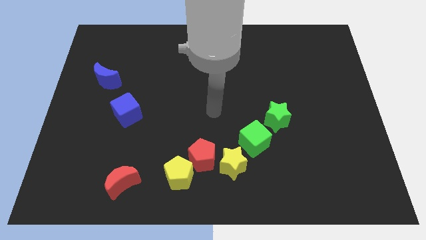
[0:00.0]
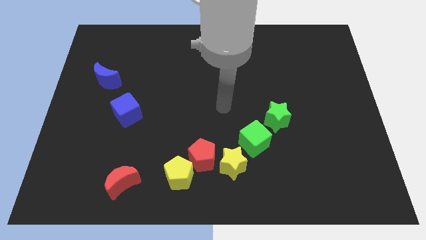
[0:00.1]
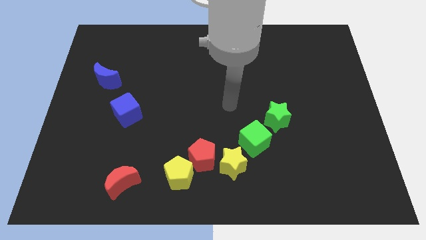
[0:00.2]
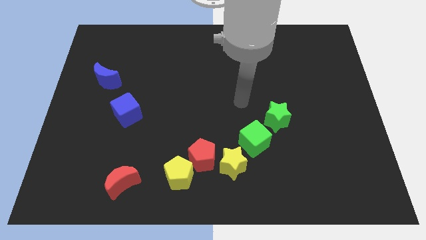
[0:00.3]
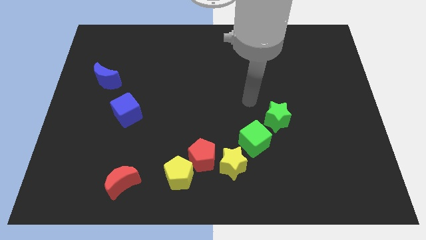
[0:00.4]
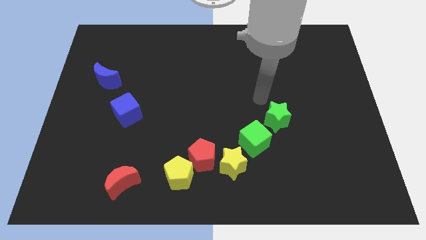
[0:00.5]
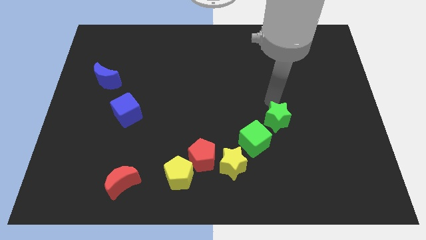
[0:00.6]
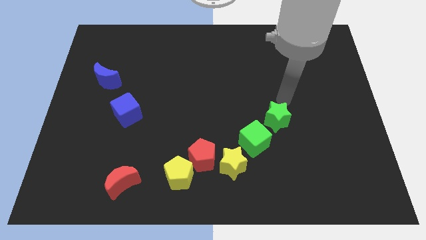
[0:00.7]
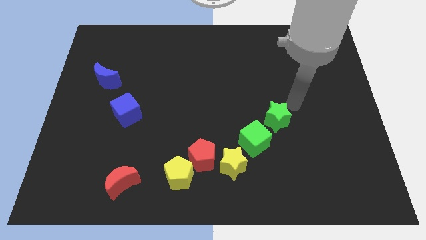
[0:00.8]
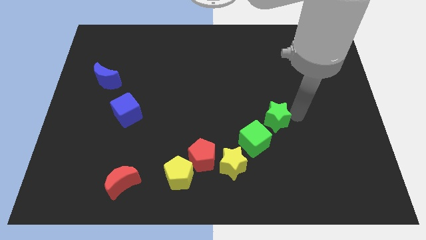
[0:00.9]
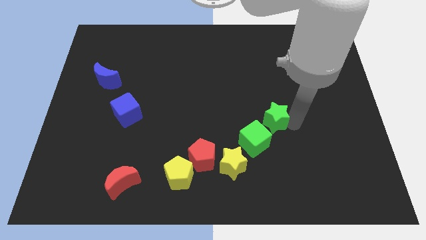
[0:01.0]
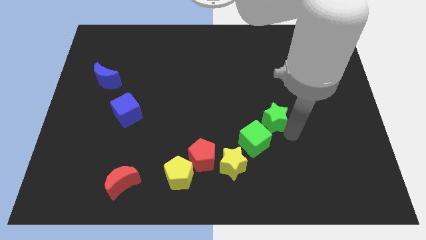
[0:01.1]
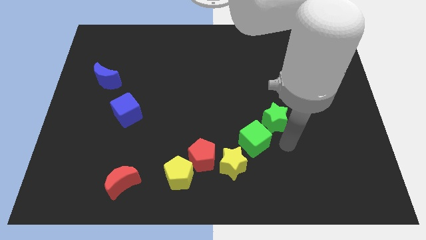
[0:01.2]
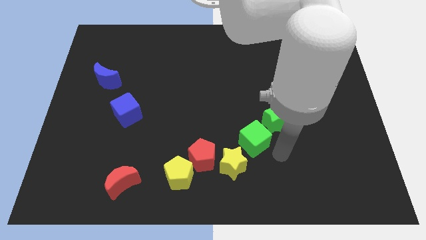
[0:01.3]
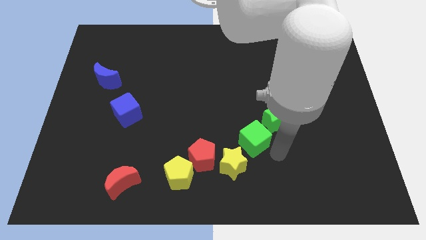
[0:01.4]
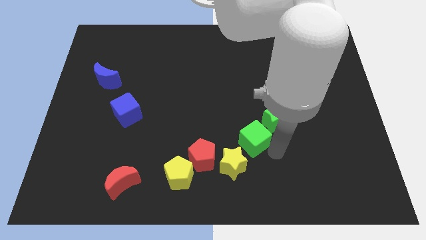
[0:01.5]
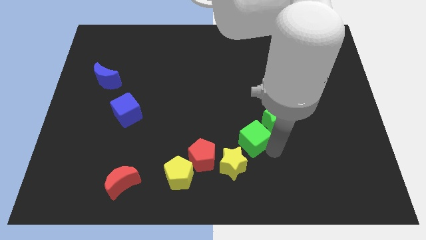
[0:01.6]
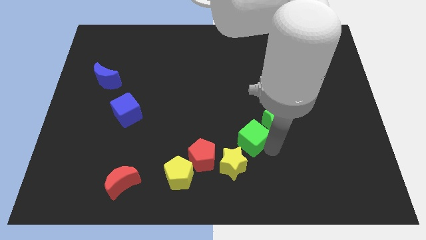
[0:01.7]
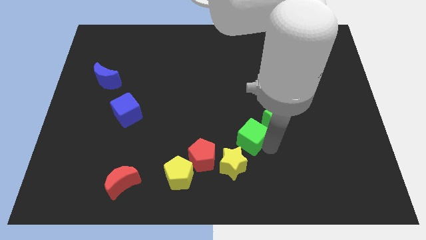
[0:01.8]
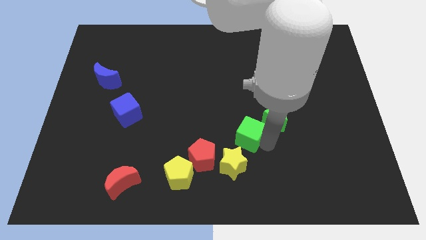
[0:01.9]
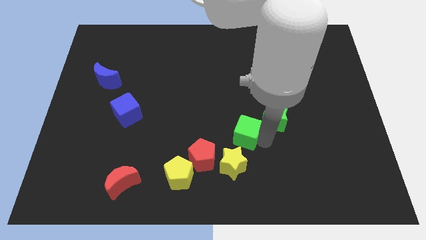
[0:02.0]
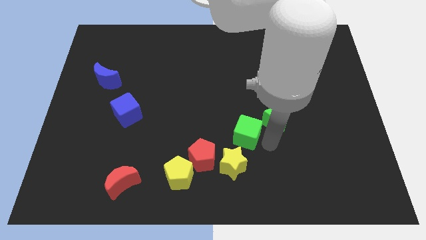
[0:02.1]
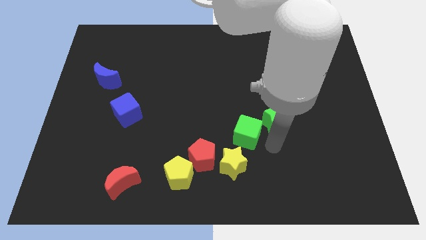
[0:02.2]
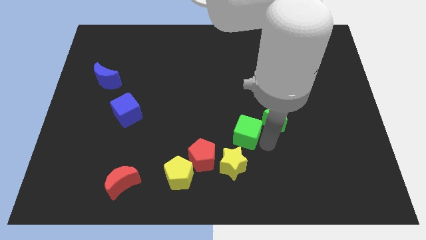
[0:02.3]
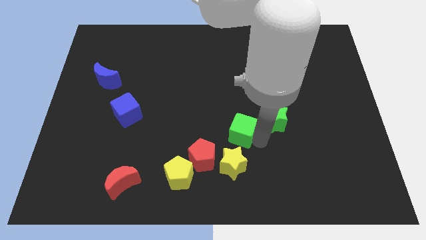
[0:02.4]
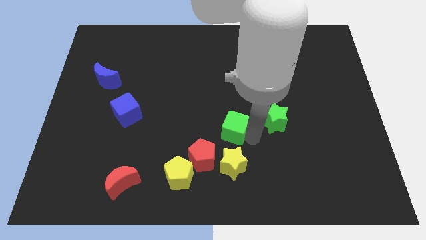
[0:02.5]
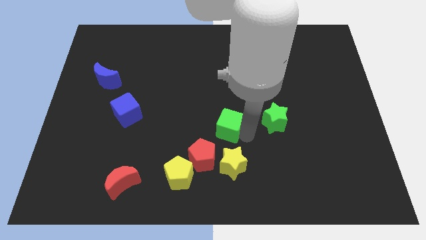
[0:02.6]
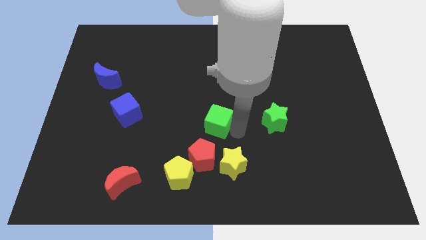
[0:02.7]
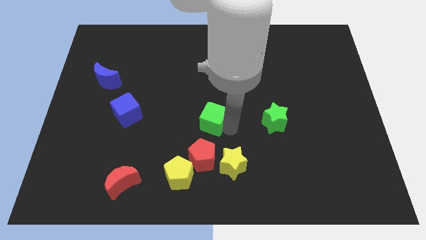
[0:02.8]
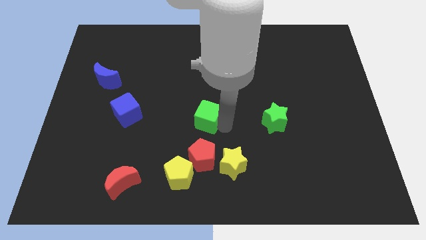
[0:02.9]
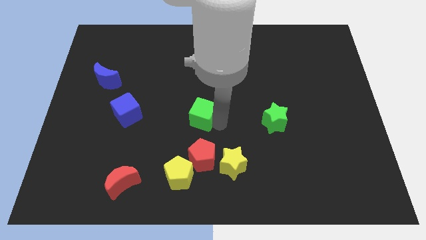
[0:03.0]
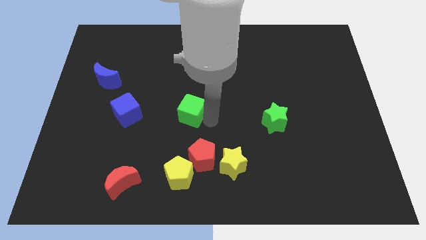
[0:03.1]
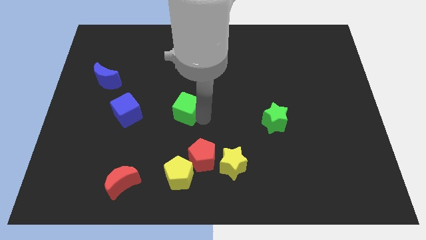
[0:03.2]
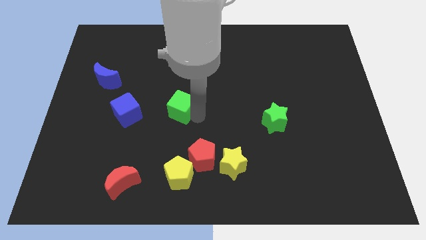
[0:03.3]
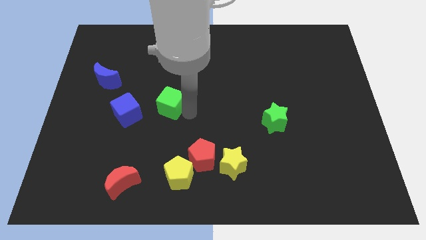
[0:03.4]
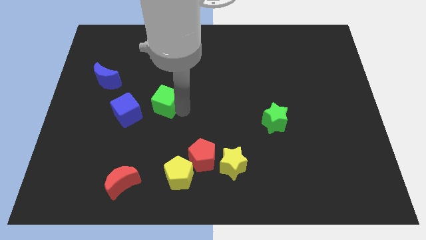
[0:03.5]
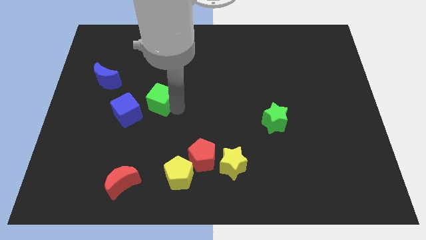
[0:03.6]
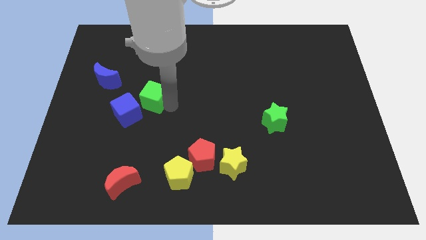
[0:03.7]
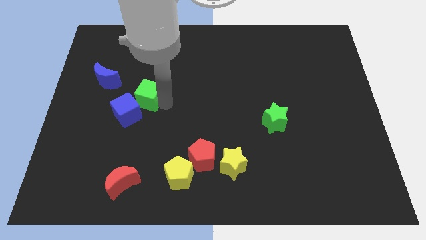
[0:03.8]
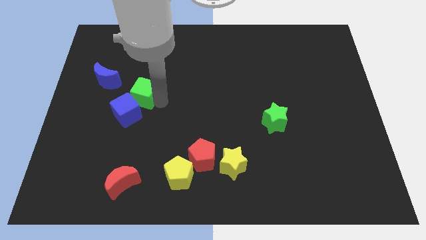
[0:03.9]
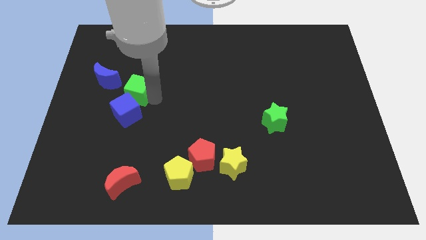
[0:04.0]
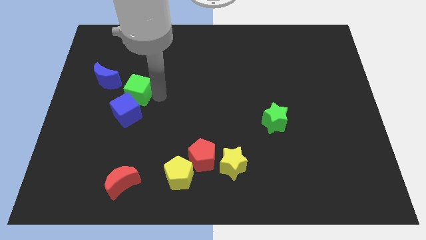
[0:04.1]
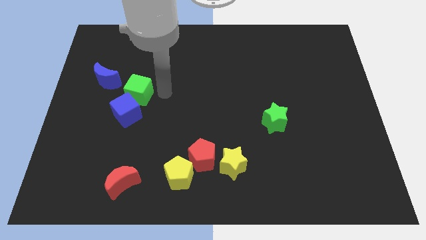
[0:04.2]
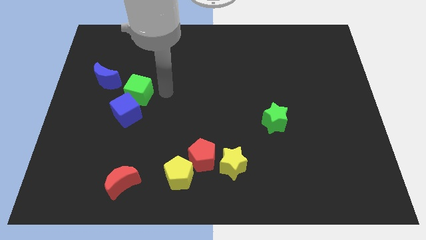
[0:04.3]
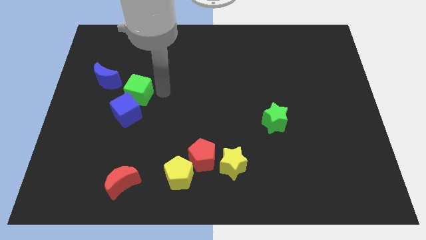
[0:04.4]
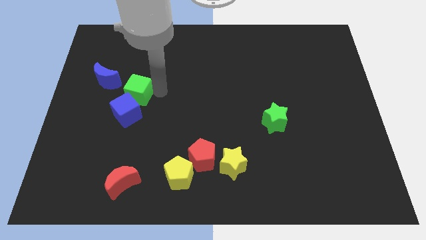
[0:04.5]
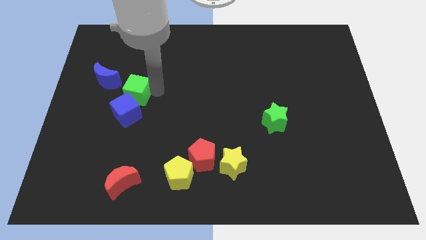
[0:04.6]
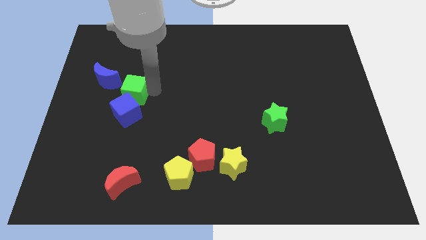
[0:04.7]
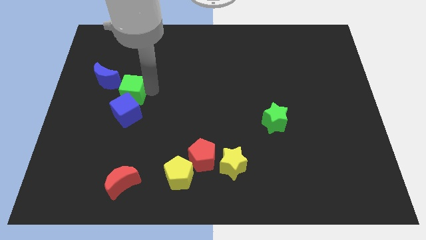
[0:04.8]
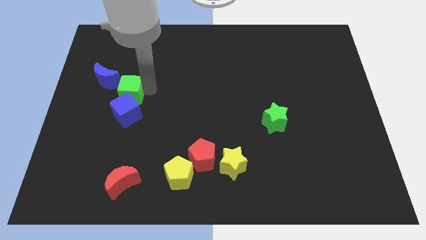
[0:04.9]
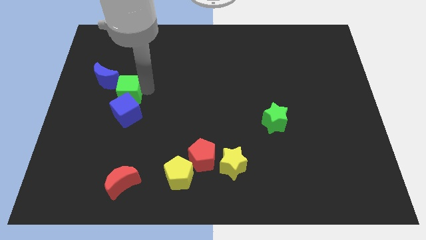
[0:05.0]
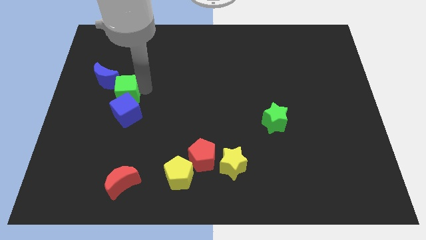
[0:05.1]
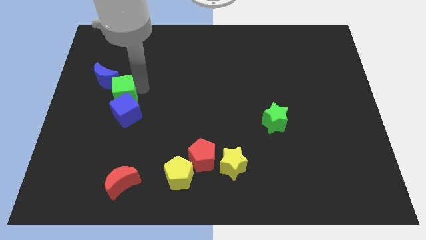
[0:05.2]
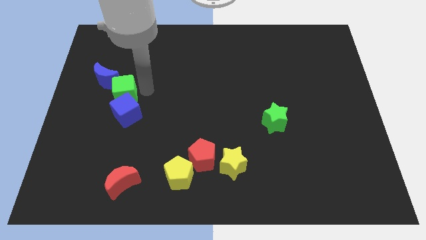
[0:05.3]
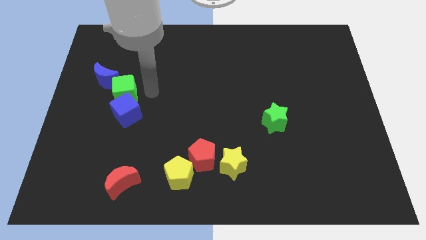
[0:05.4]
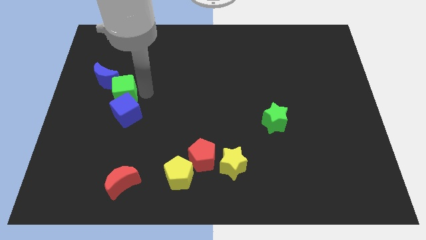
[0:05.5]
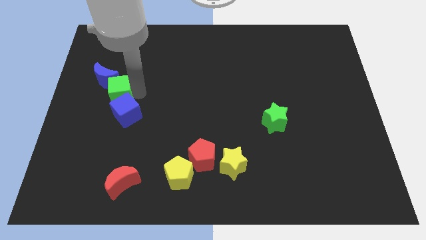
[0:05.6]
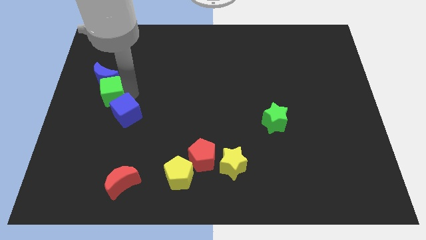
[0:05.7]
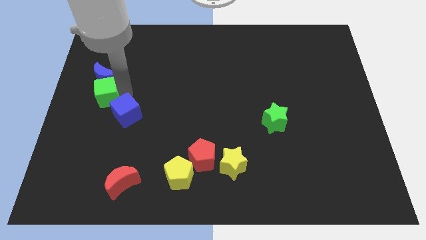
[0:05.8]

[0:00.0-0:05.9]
push the green cube to the left side
